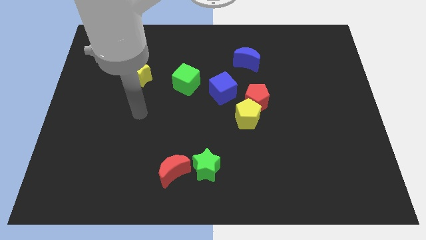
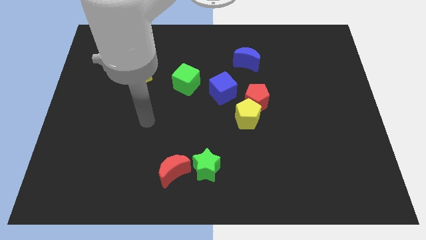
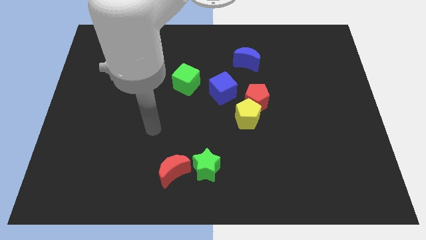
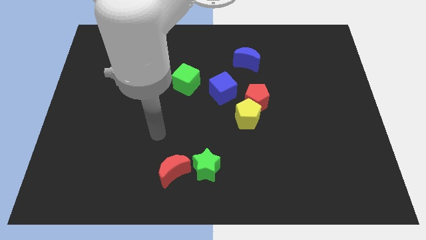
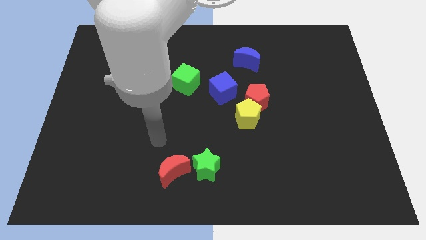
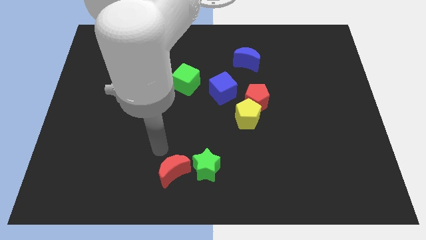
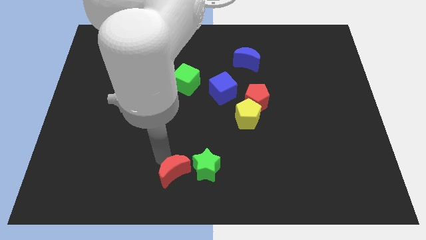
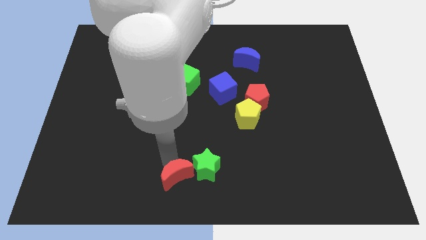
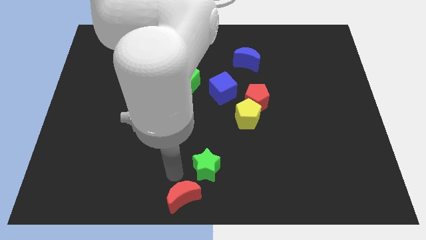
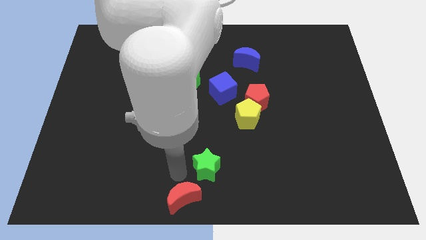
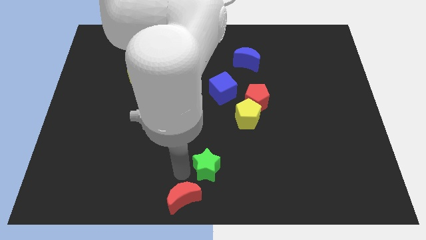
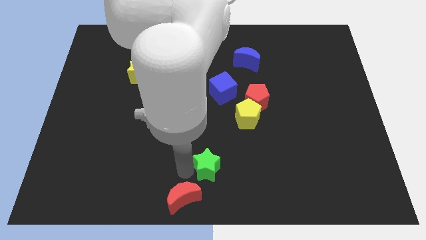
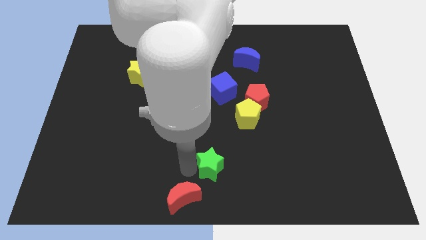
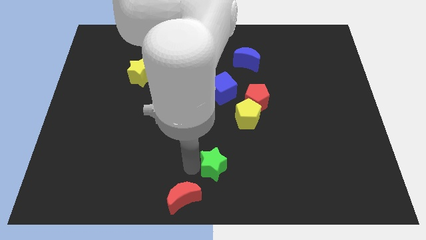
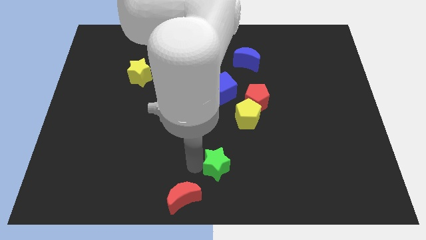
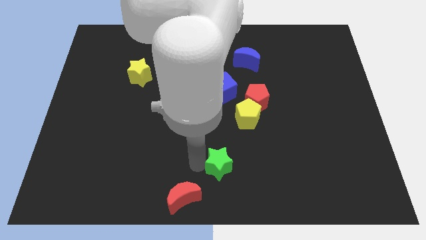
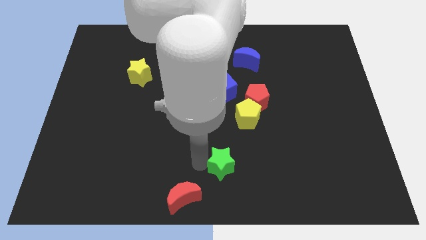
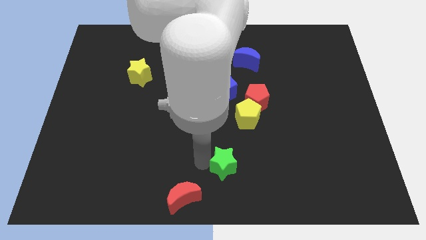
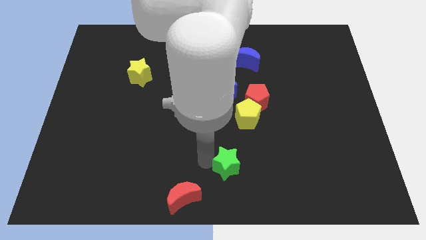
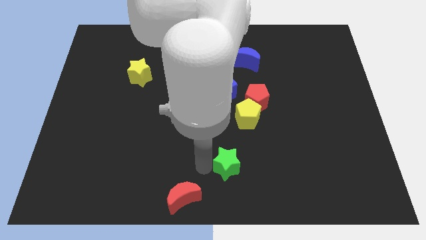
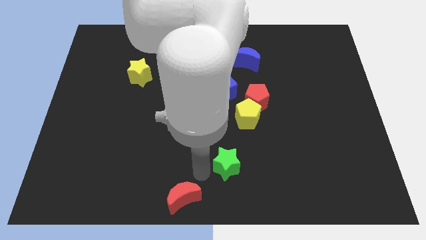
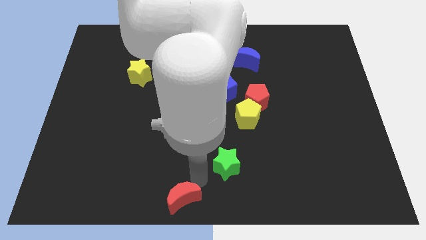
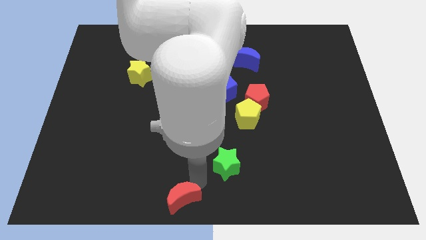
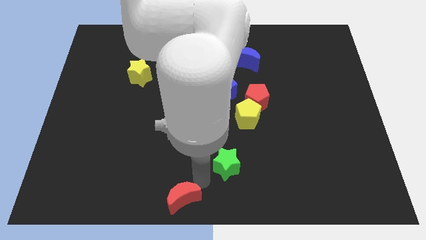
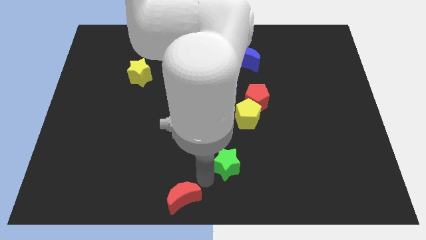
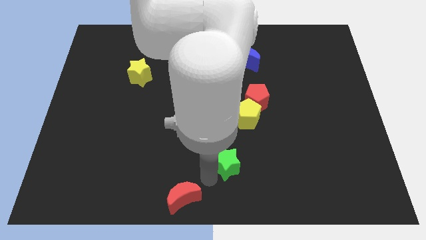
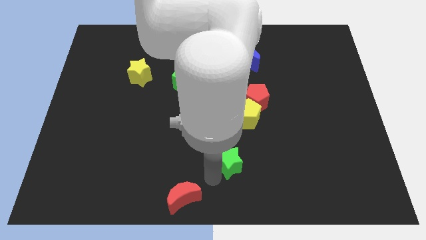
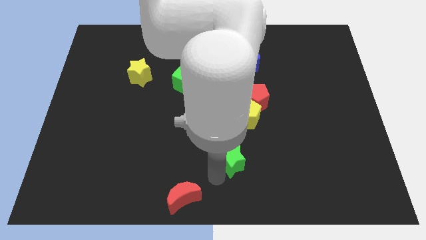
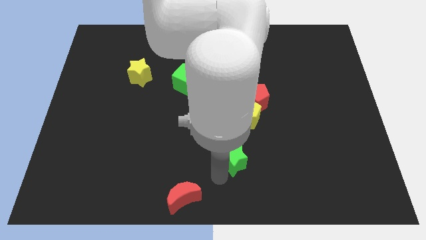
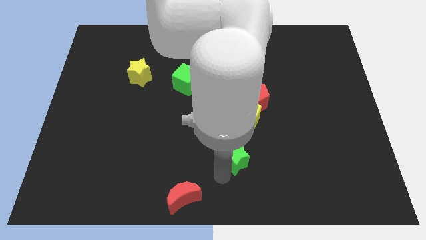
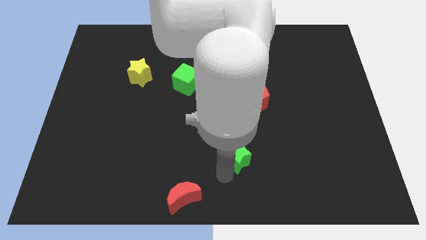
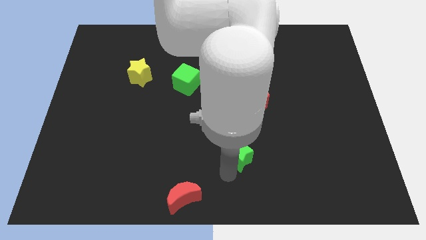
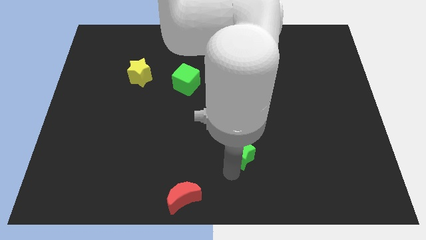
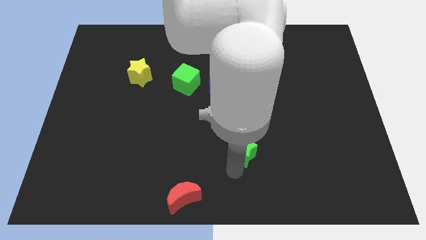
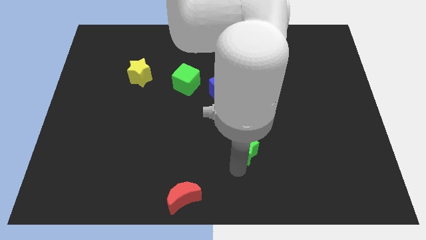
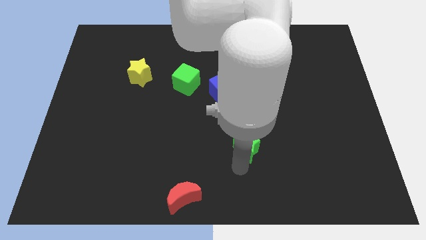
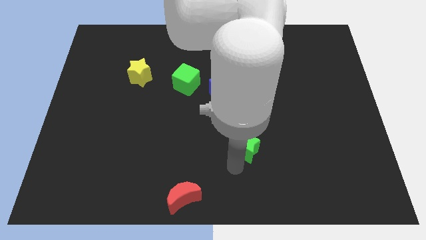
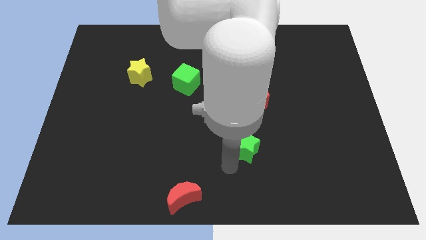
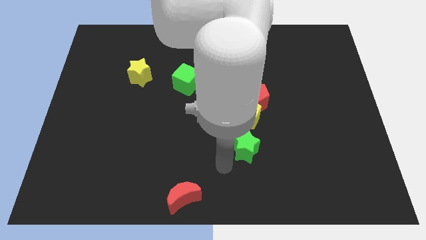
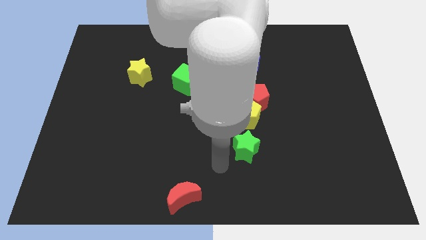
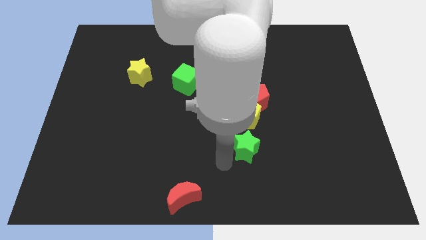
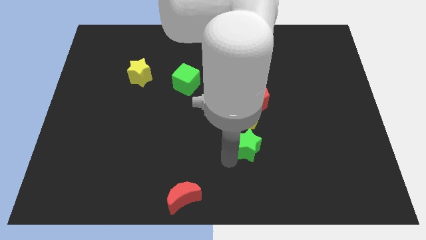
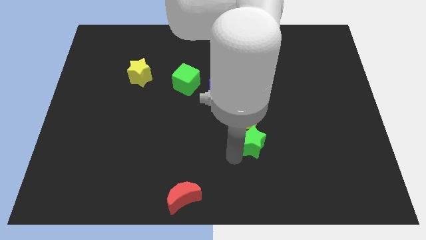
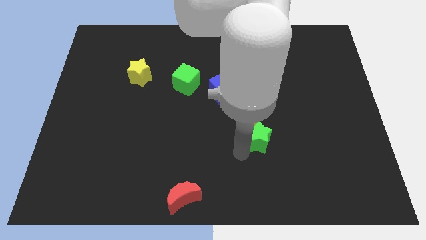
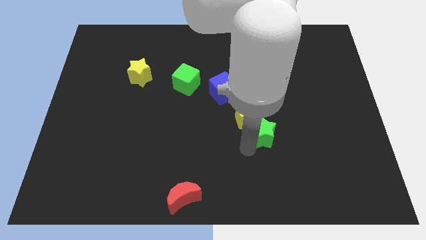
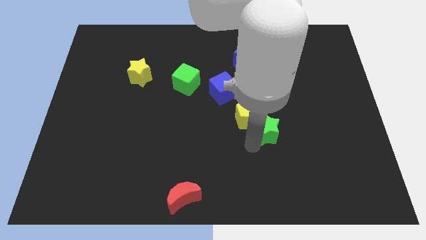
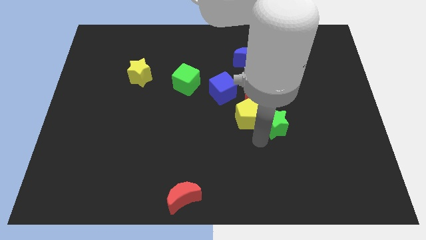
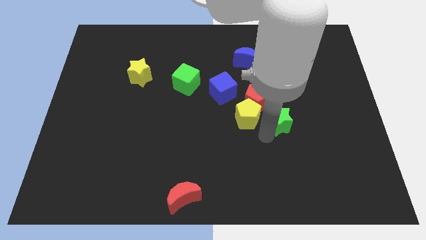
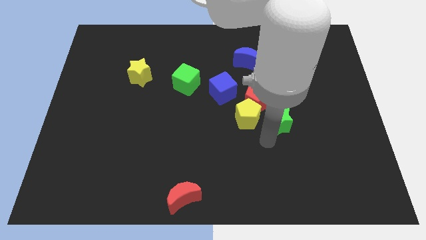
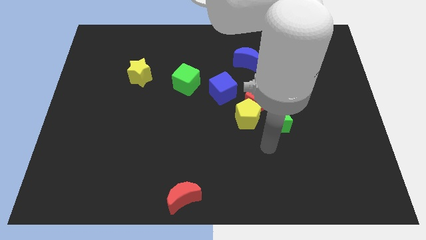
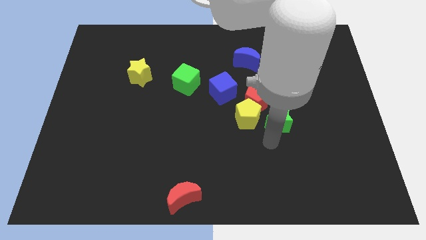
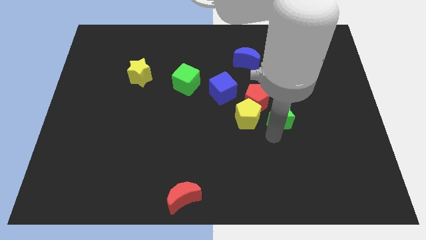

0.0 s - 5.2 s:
move the green star up and then right

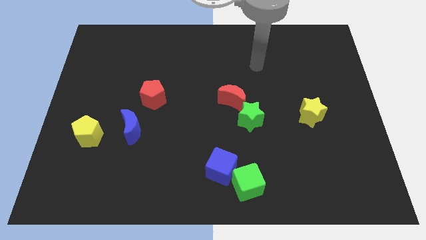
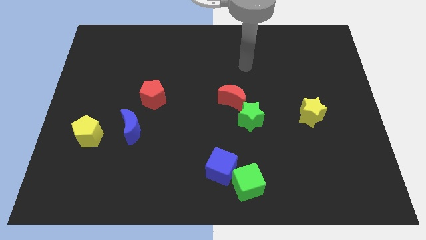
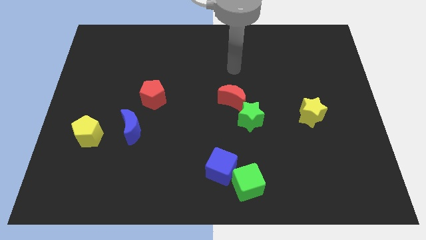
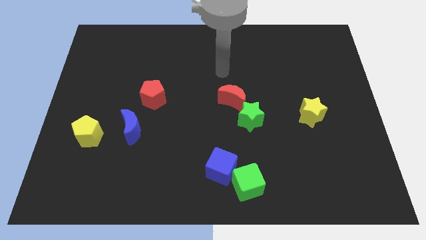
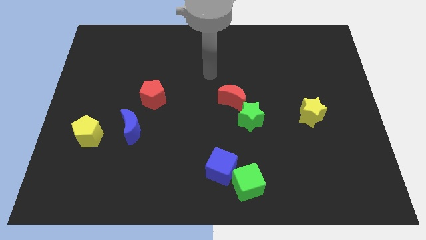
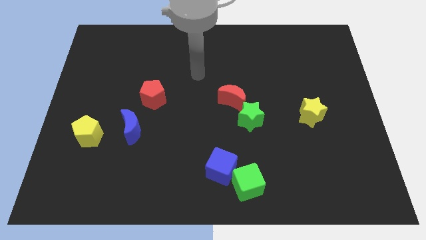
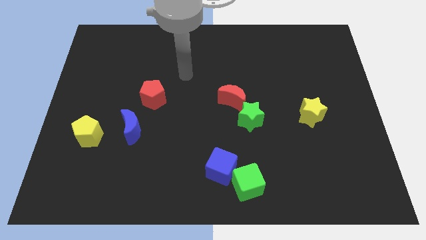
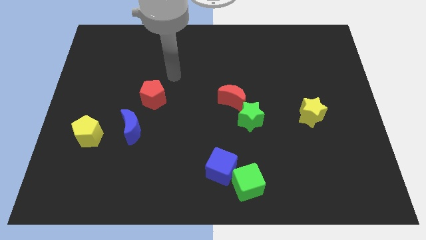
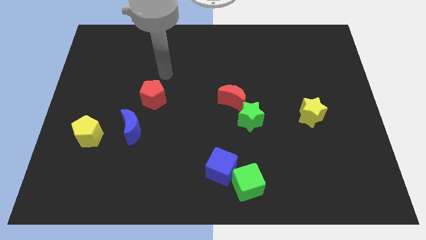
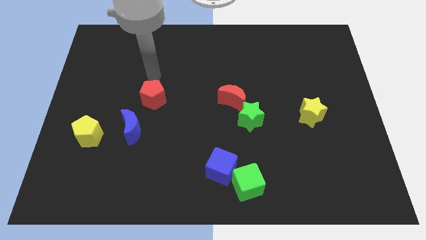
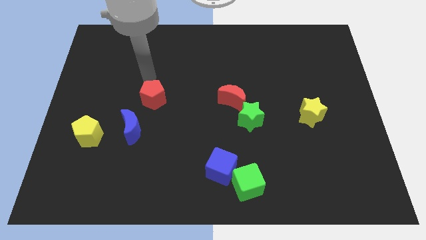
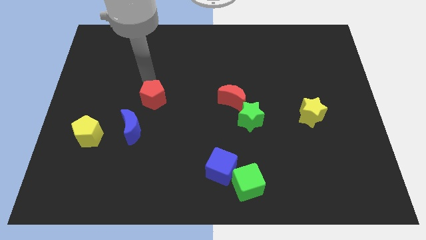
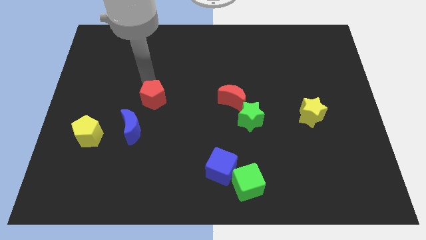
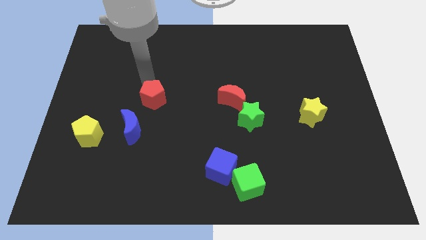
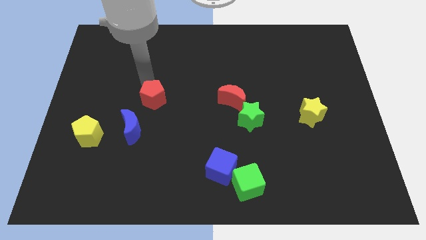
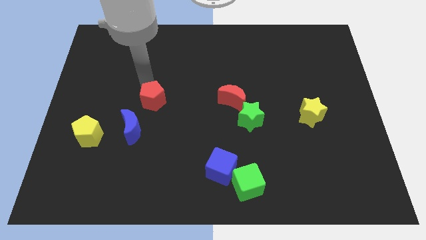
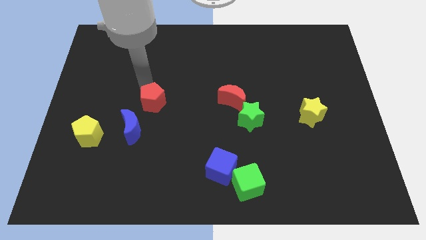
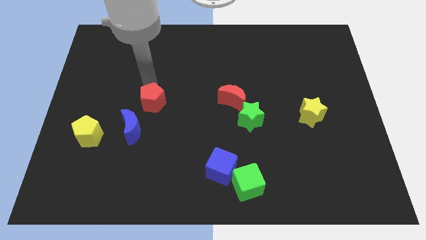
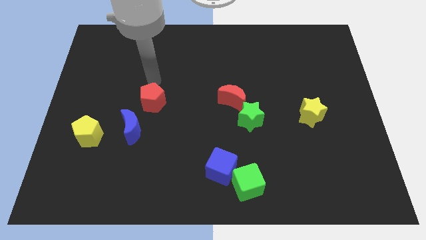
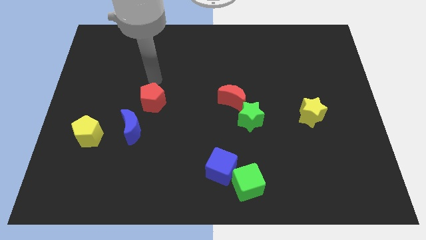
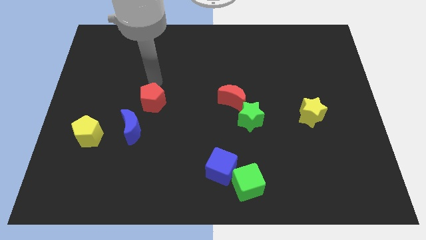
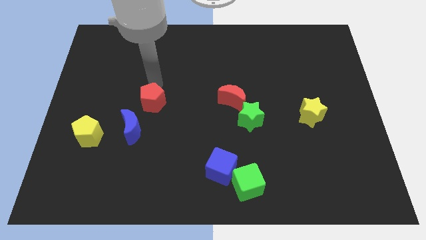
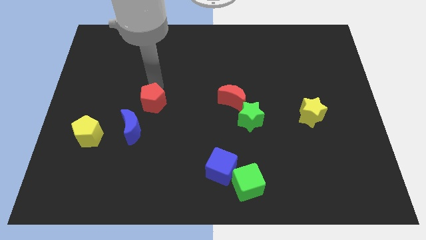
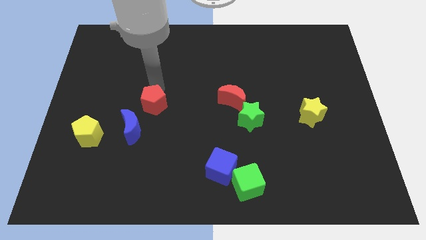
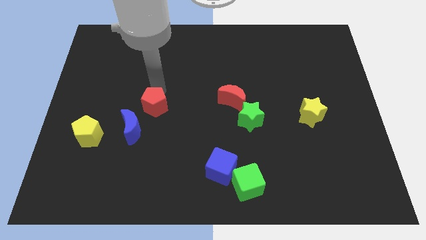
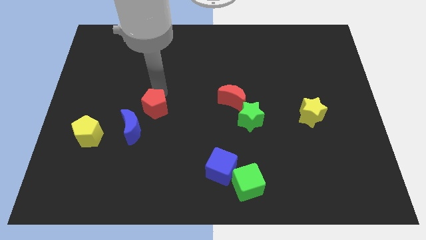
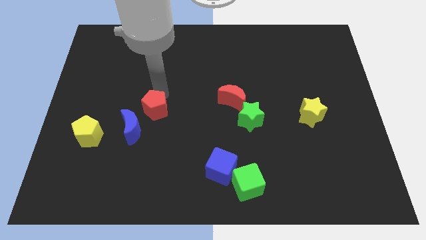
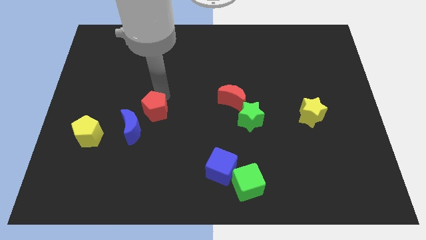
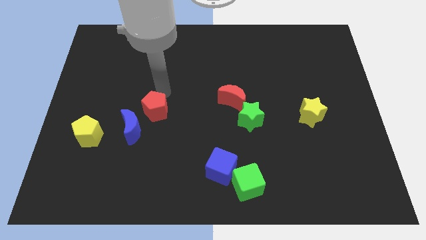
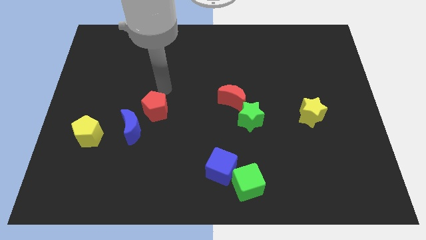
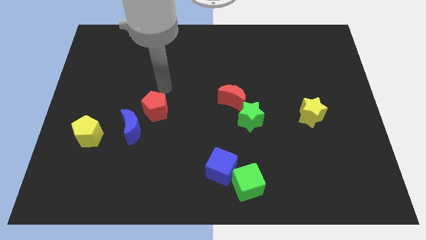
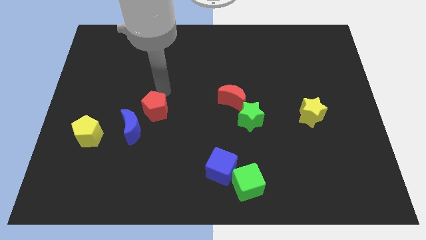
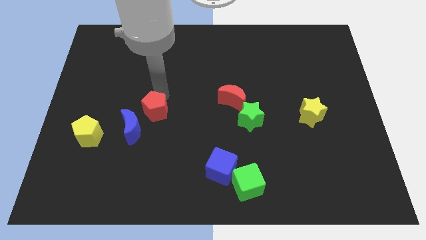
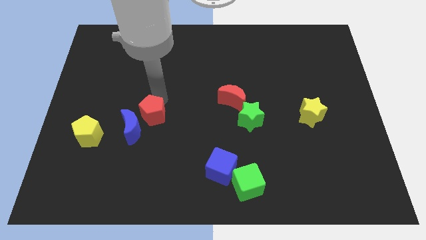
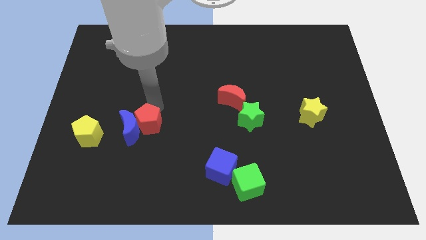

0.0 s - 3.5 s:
slide the red pentagon downwards a little
